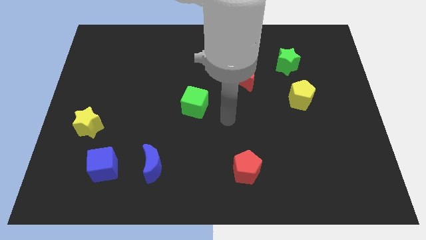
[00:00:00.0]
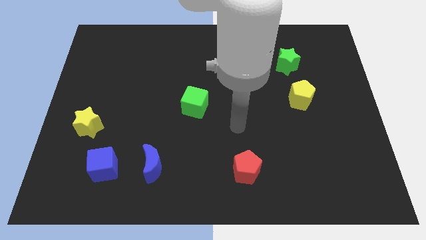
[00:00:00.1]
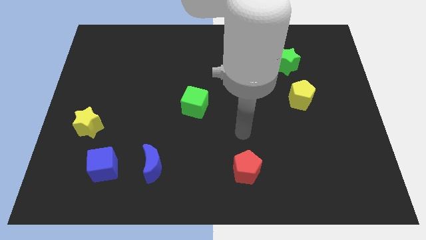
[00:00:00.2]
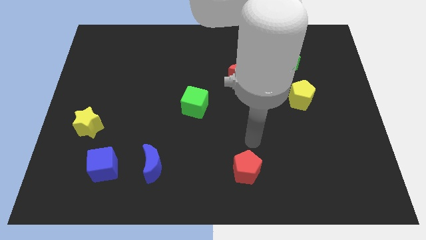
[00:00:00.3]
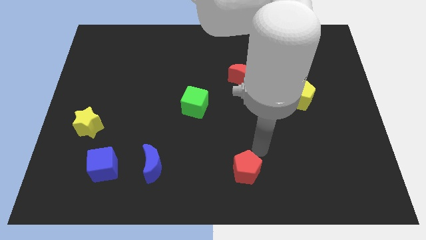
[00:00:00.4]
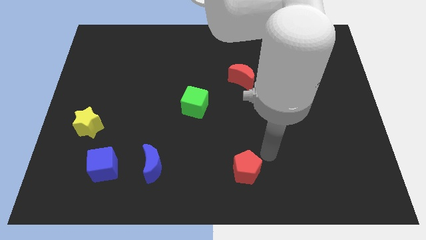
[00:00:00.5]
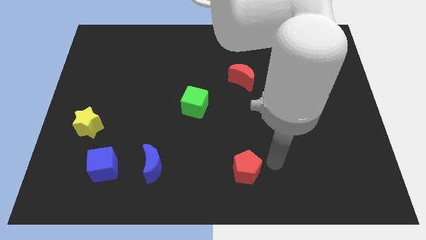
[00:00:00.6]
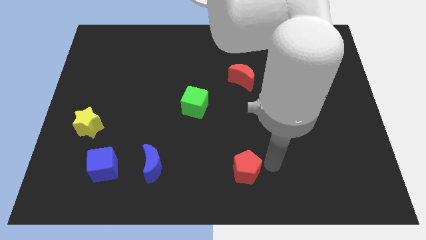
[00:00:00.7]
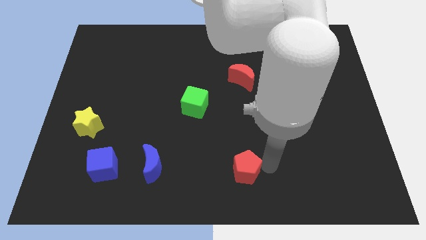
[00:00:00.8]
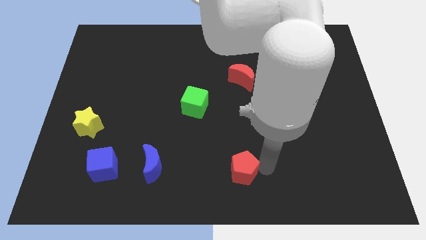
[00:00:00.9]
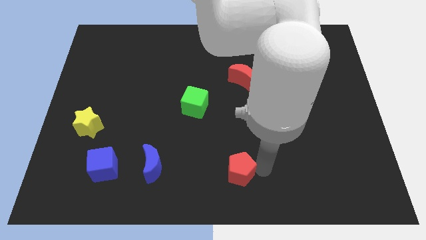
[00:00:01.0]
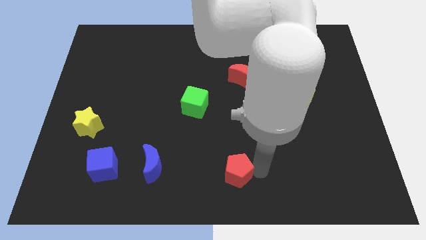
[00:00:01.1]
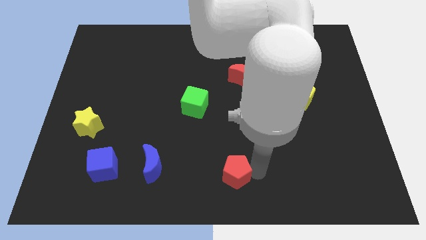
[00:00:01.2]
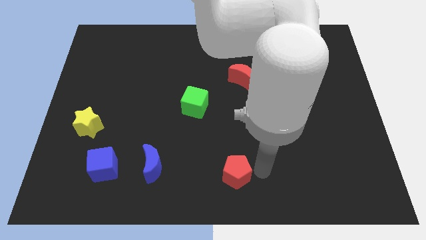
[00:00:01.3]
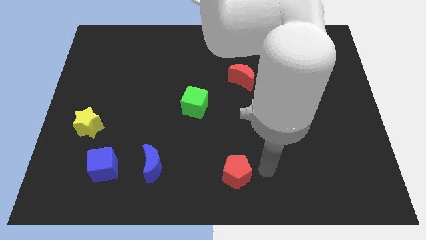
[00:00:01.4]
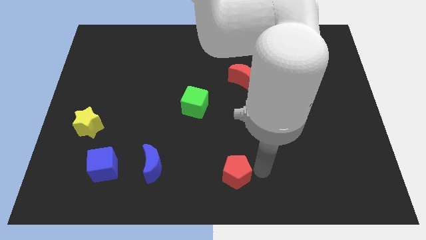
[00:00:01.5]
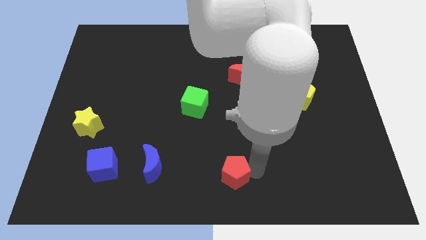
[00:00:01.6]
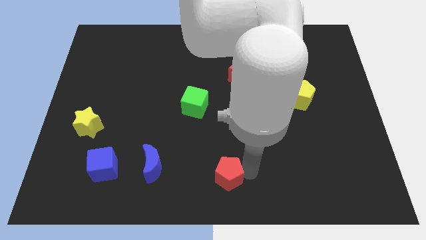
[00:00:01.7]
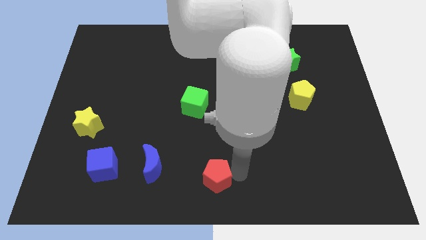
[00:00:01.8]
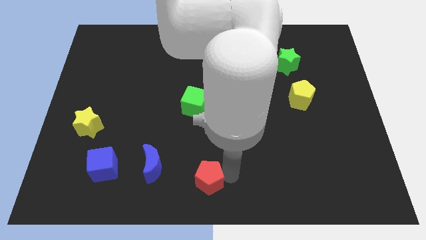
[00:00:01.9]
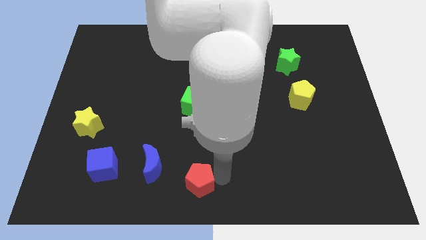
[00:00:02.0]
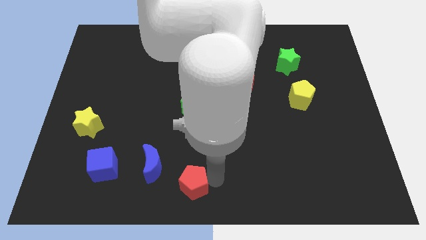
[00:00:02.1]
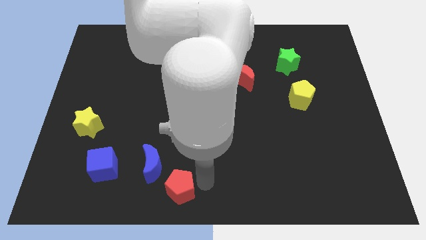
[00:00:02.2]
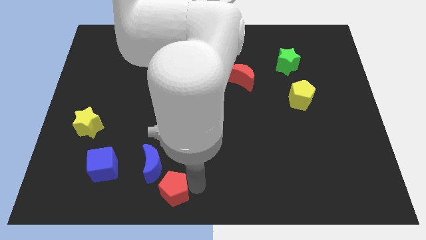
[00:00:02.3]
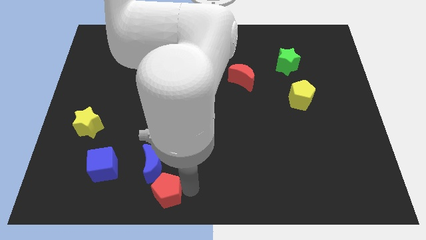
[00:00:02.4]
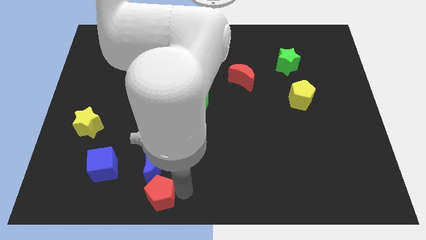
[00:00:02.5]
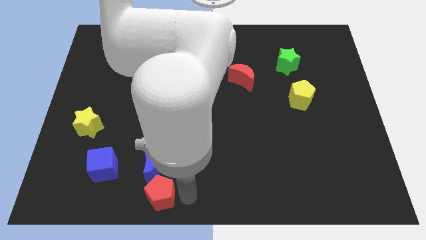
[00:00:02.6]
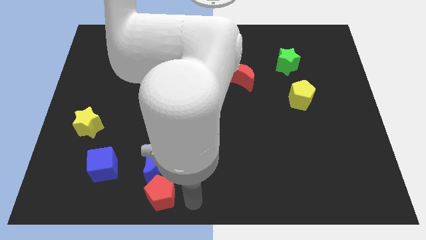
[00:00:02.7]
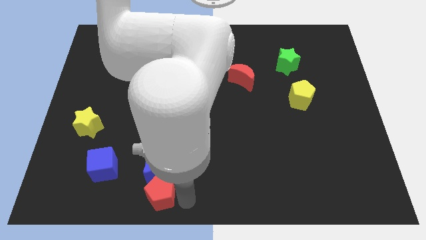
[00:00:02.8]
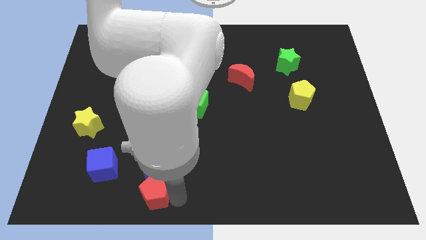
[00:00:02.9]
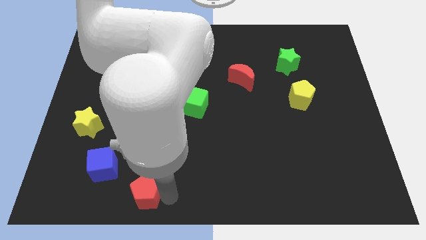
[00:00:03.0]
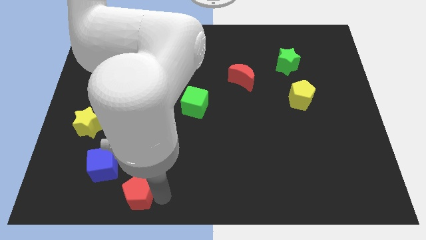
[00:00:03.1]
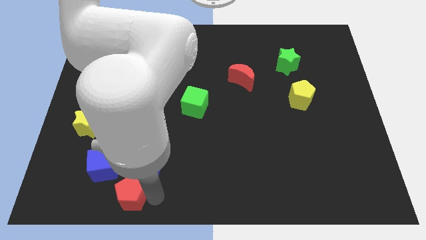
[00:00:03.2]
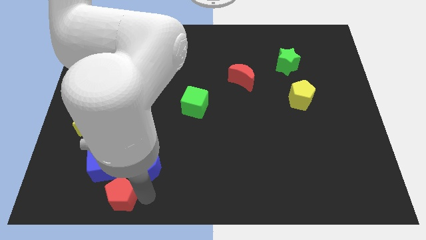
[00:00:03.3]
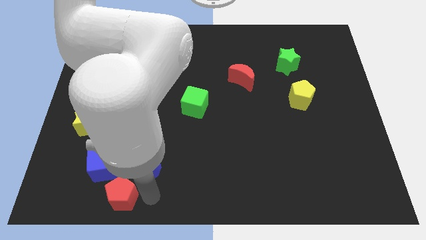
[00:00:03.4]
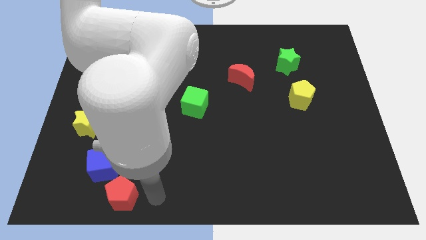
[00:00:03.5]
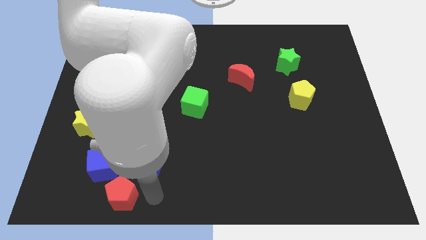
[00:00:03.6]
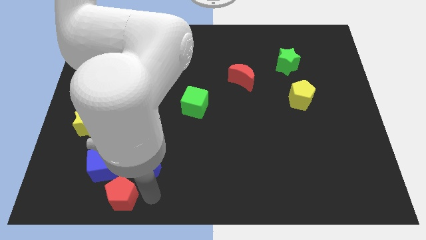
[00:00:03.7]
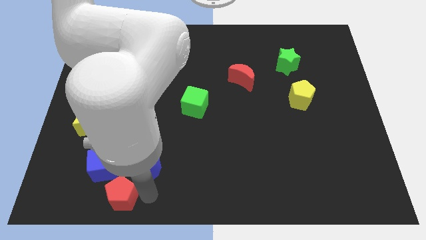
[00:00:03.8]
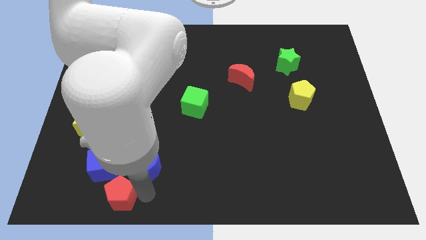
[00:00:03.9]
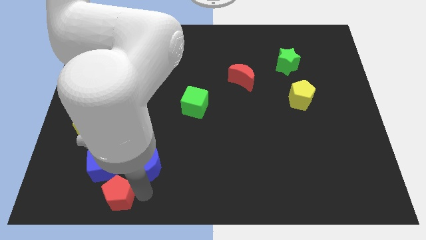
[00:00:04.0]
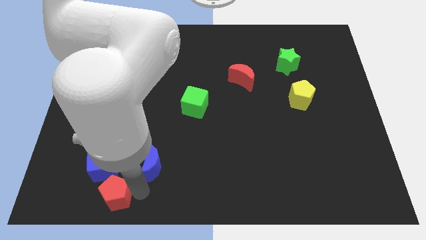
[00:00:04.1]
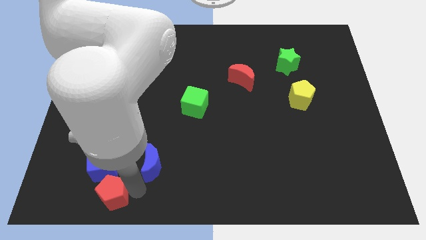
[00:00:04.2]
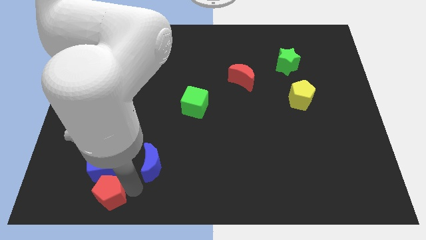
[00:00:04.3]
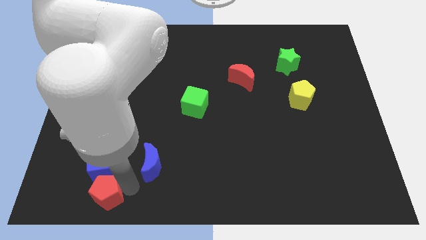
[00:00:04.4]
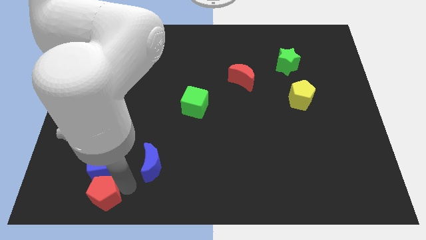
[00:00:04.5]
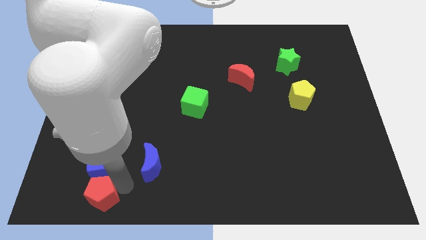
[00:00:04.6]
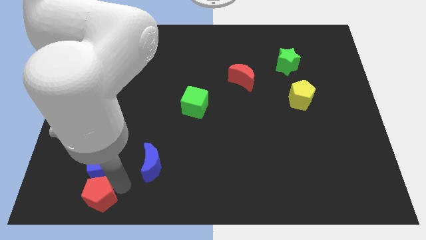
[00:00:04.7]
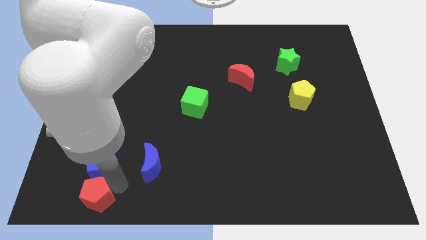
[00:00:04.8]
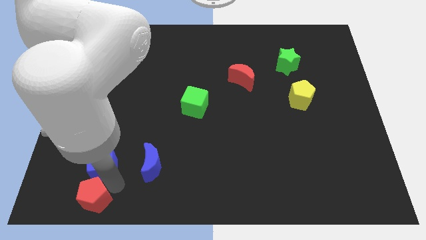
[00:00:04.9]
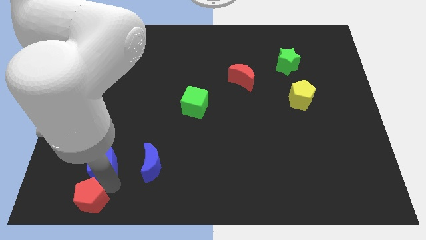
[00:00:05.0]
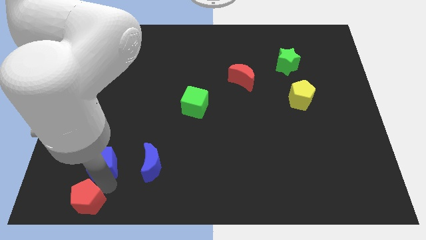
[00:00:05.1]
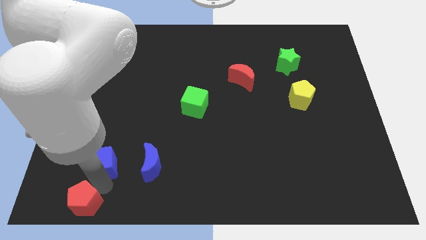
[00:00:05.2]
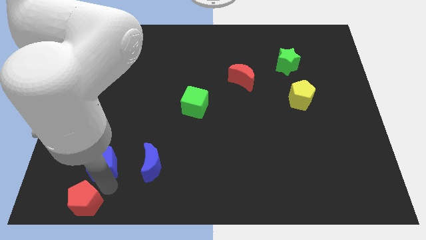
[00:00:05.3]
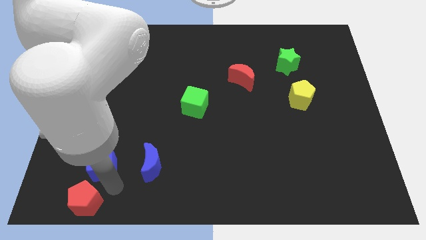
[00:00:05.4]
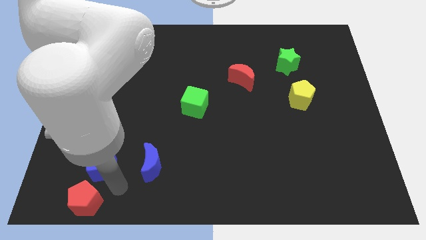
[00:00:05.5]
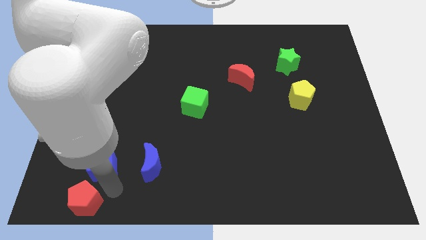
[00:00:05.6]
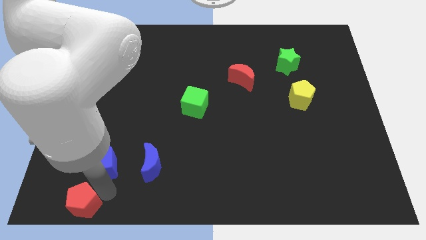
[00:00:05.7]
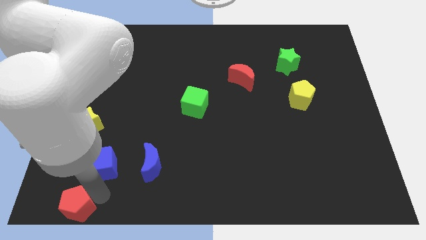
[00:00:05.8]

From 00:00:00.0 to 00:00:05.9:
push the red pentagon to the bottom left
